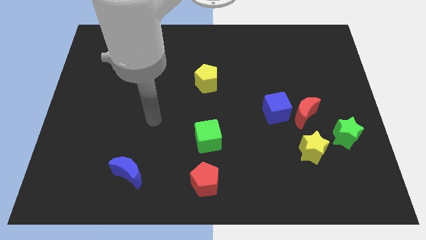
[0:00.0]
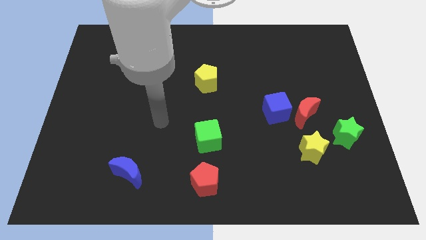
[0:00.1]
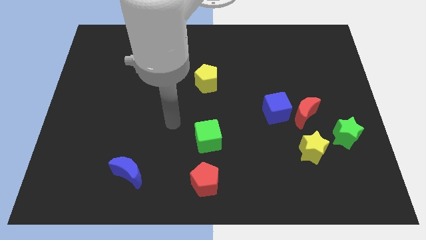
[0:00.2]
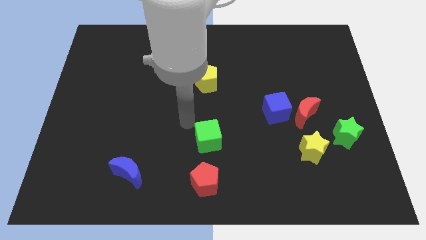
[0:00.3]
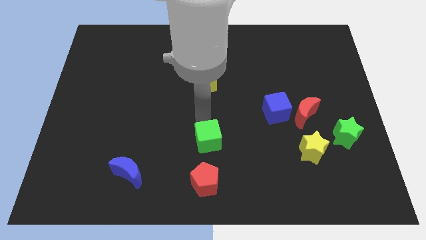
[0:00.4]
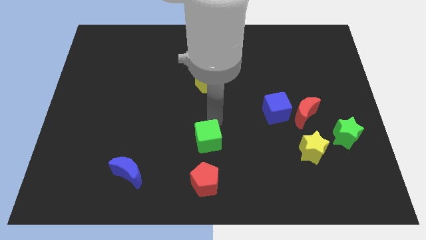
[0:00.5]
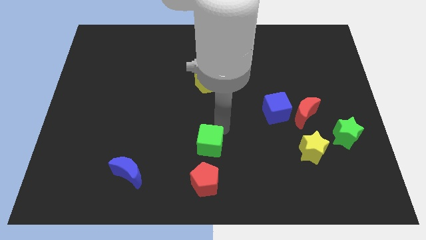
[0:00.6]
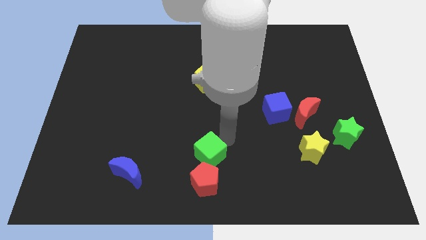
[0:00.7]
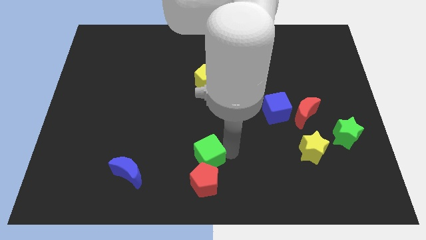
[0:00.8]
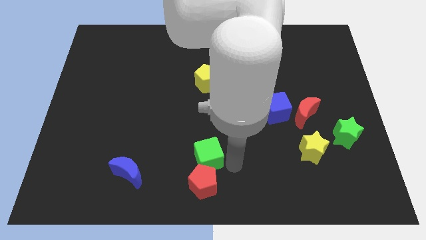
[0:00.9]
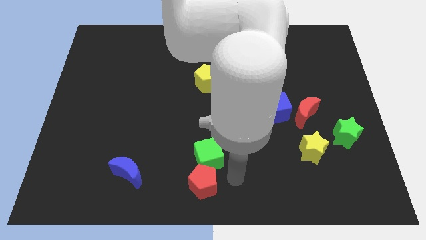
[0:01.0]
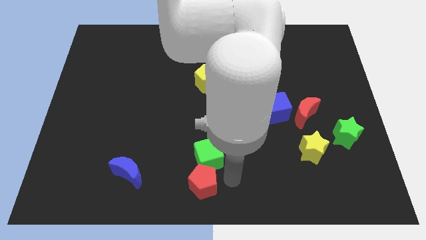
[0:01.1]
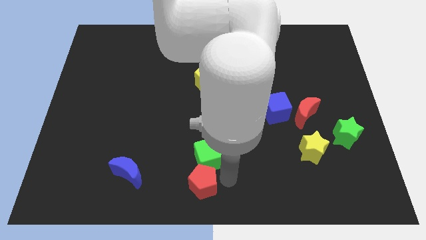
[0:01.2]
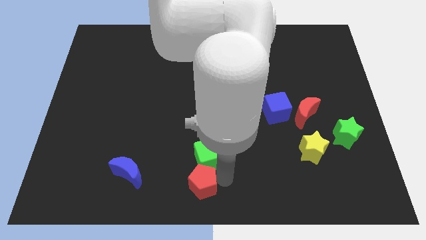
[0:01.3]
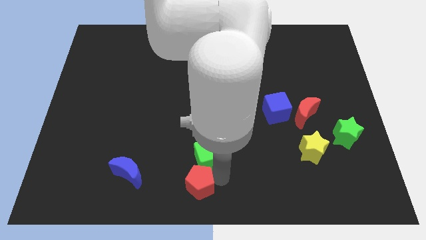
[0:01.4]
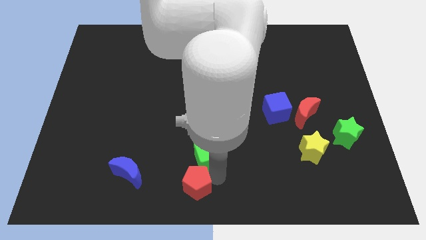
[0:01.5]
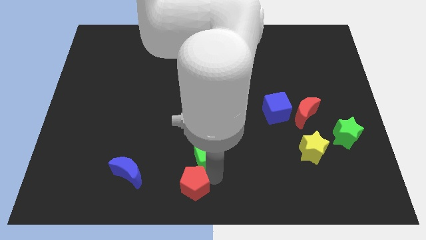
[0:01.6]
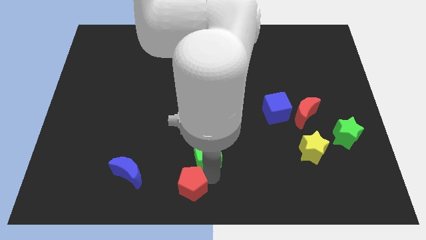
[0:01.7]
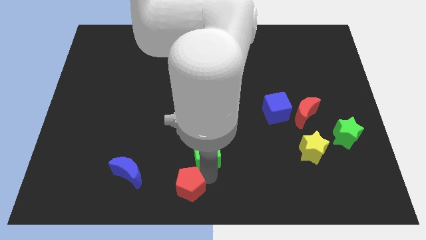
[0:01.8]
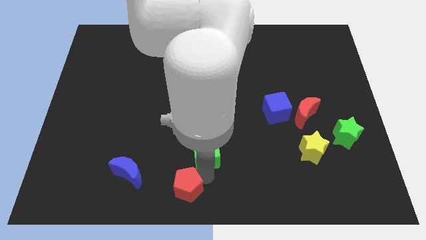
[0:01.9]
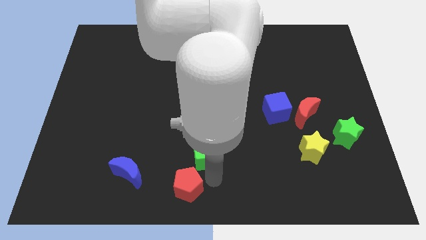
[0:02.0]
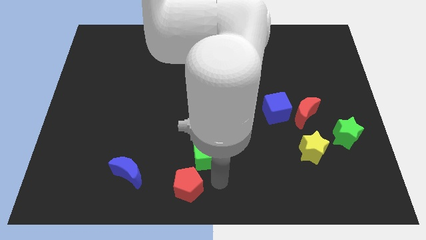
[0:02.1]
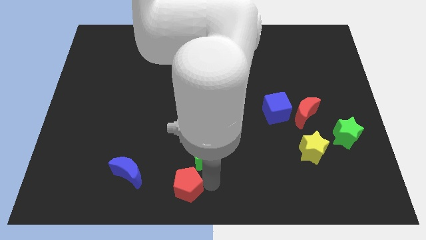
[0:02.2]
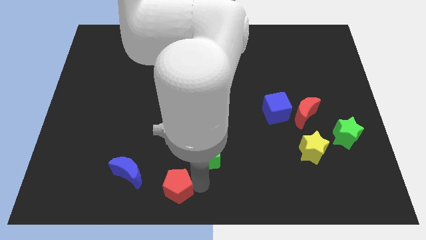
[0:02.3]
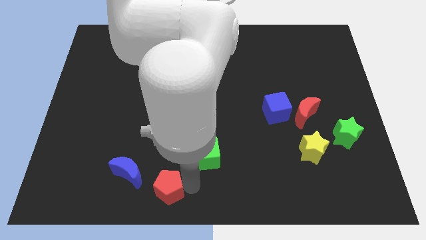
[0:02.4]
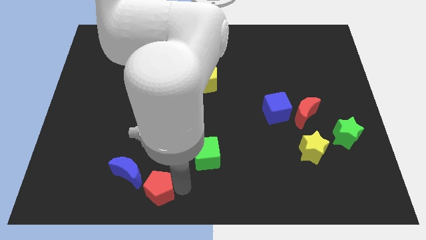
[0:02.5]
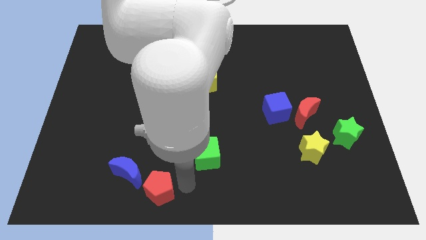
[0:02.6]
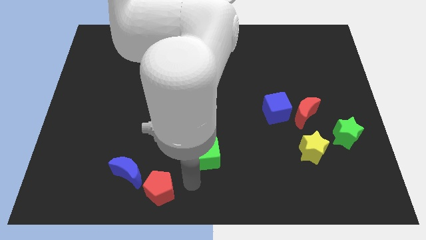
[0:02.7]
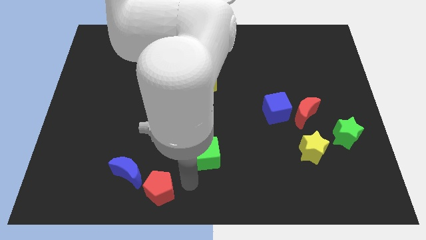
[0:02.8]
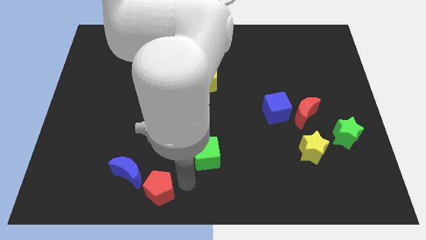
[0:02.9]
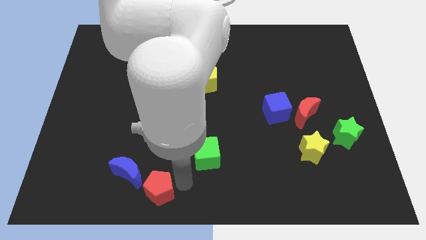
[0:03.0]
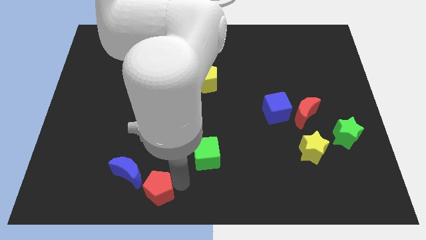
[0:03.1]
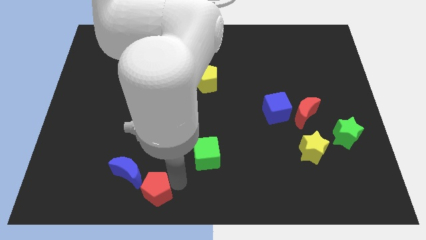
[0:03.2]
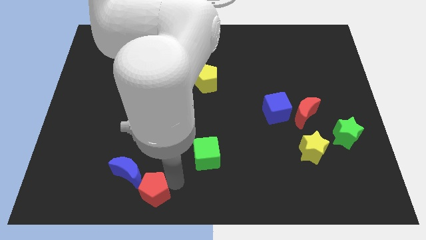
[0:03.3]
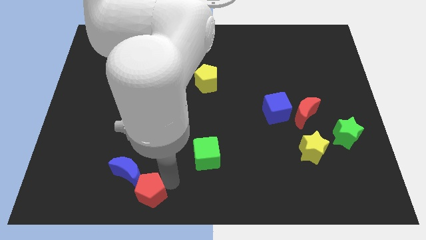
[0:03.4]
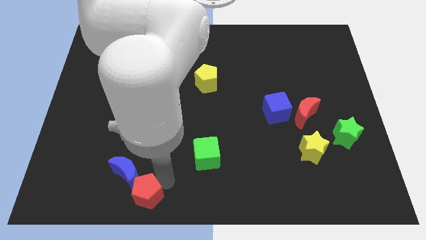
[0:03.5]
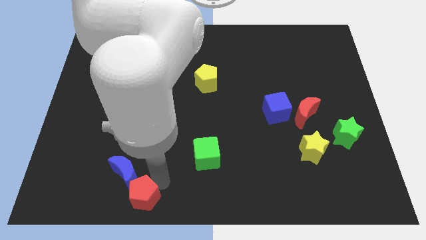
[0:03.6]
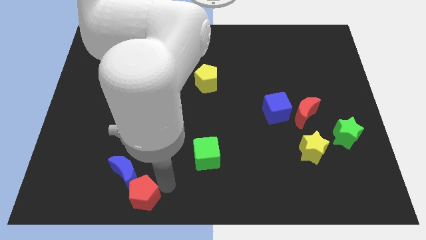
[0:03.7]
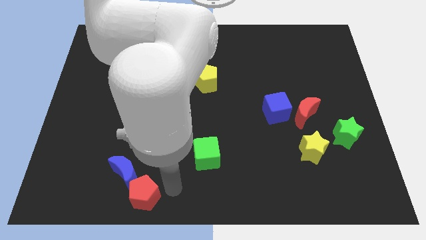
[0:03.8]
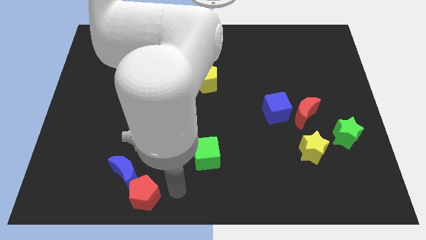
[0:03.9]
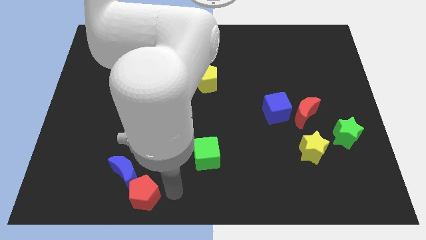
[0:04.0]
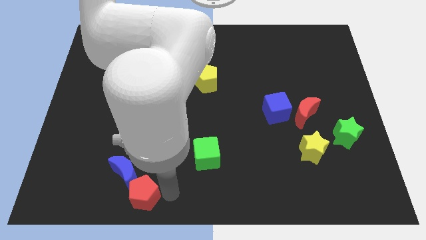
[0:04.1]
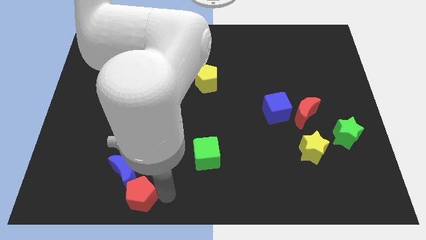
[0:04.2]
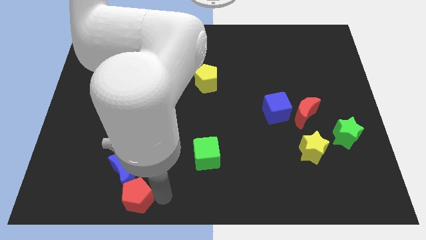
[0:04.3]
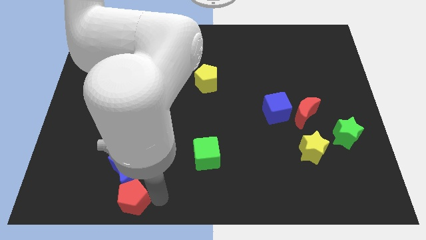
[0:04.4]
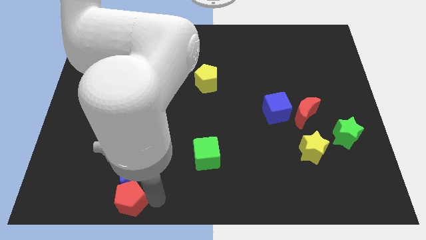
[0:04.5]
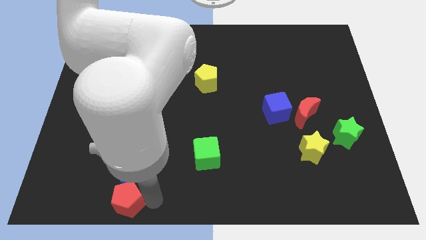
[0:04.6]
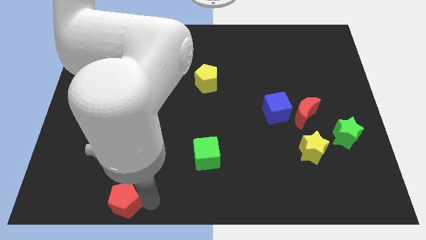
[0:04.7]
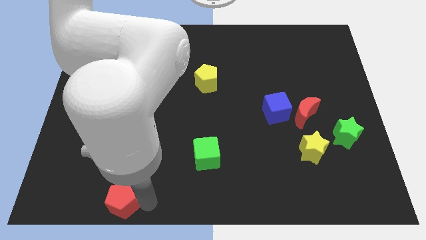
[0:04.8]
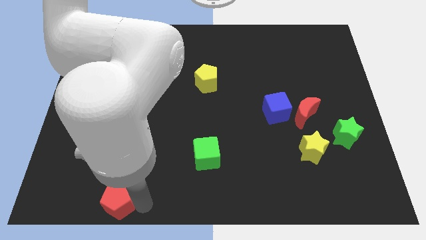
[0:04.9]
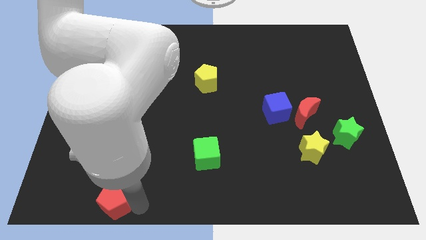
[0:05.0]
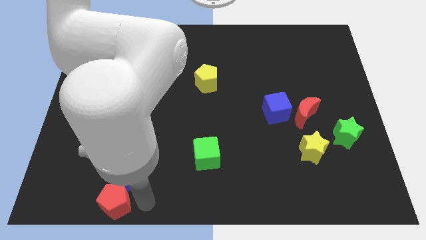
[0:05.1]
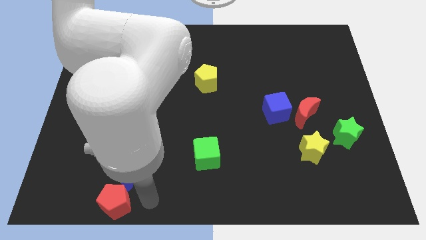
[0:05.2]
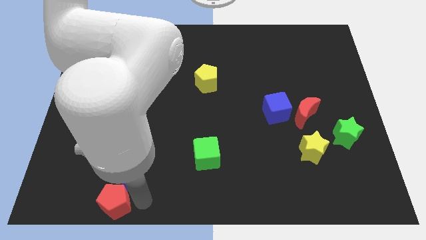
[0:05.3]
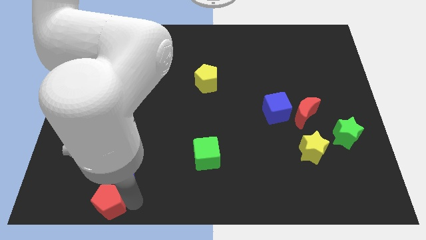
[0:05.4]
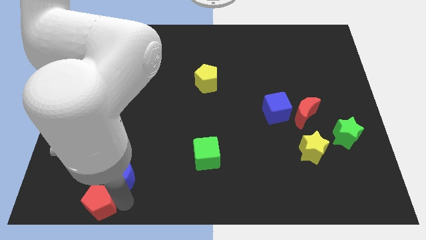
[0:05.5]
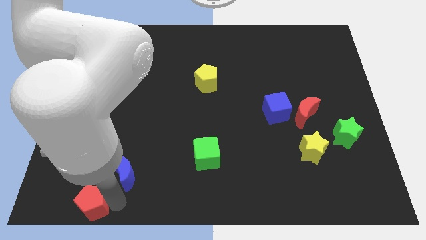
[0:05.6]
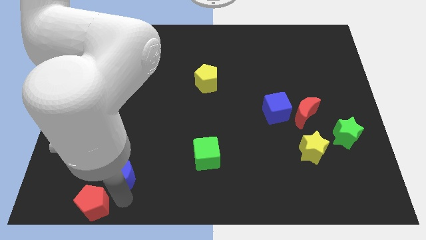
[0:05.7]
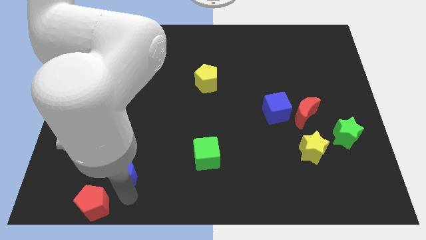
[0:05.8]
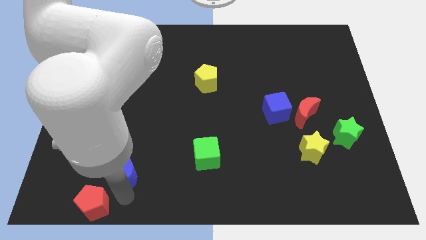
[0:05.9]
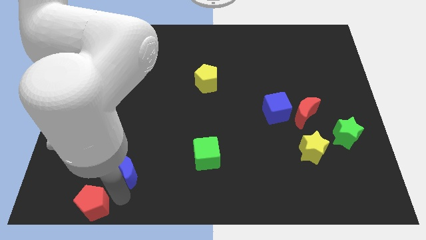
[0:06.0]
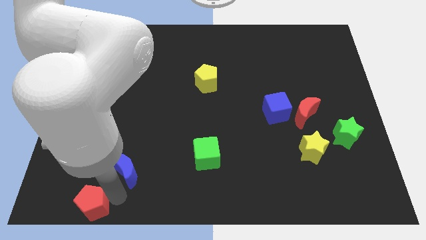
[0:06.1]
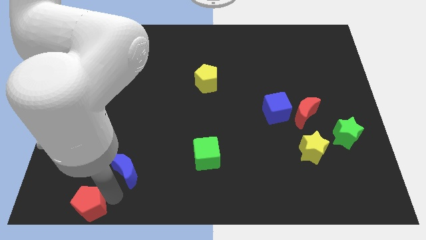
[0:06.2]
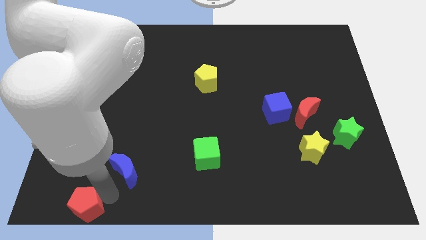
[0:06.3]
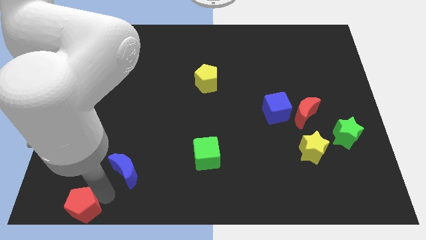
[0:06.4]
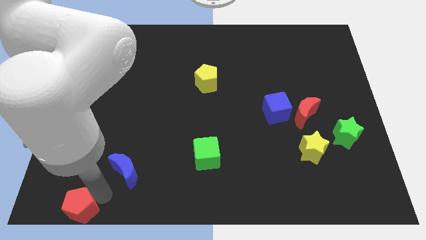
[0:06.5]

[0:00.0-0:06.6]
put the red pentagon to the bottom left
